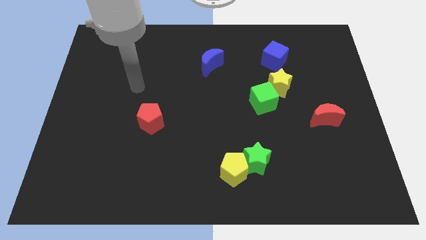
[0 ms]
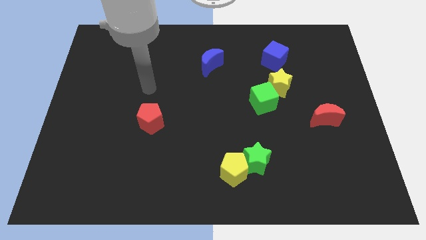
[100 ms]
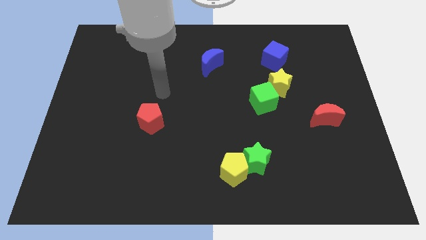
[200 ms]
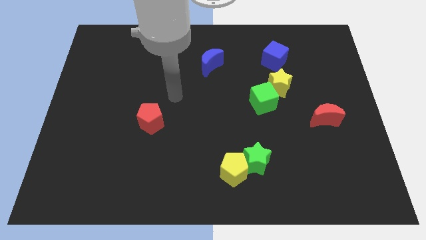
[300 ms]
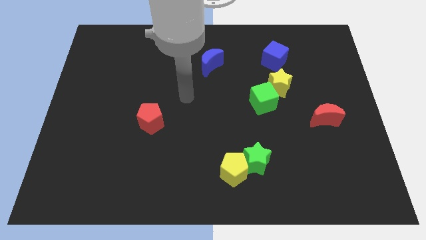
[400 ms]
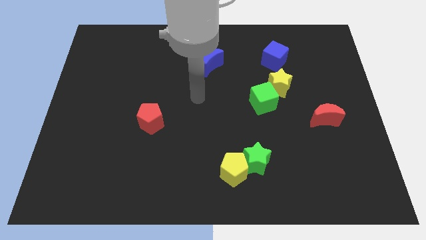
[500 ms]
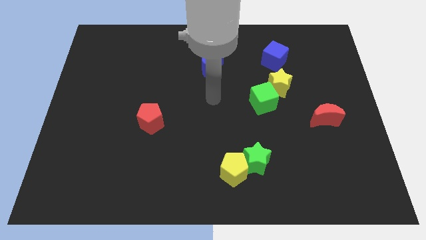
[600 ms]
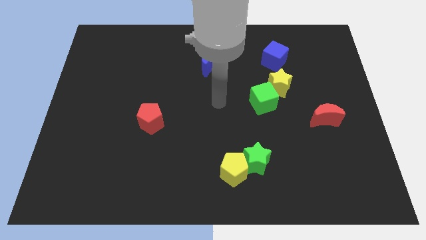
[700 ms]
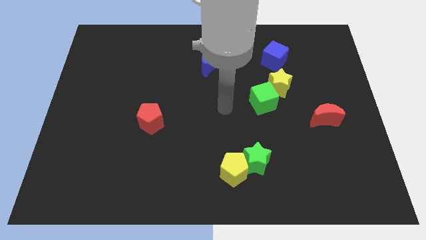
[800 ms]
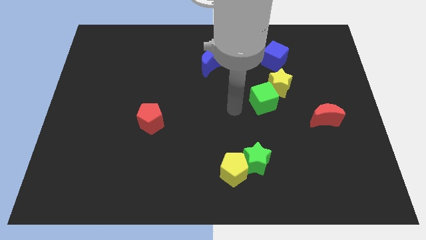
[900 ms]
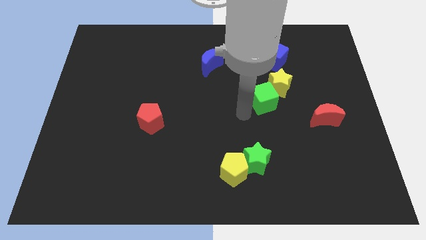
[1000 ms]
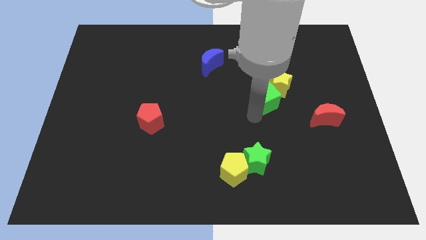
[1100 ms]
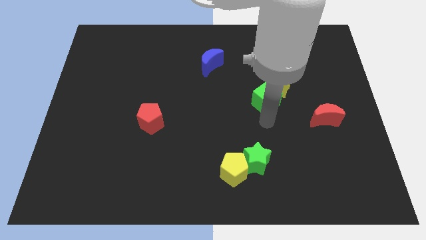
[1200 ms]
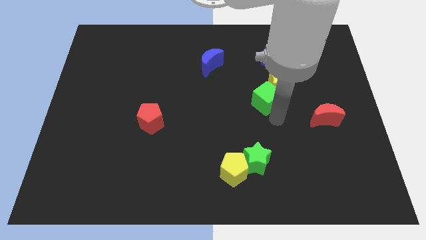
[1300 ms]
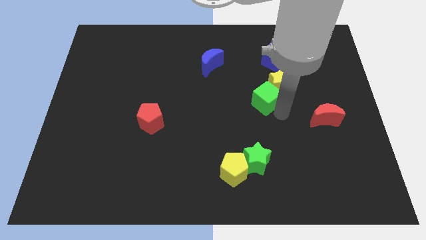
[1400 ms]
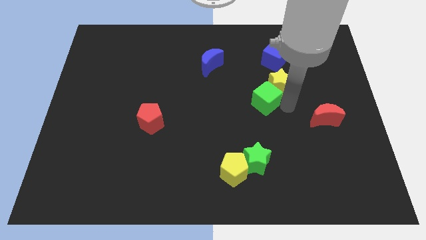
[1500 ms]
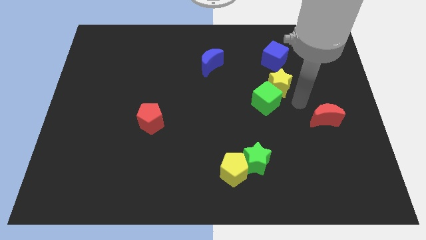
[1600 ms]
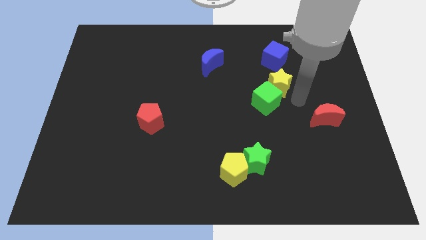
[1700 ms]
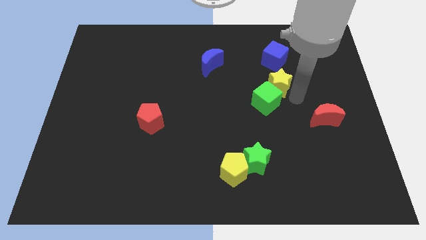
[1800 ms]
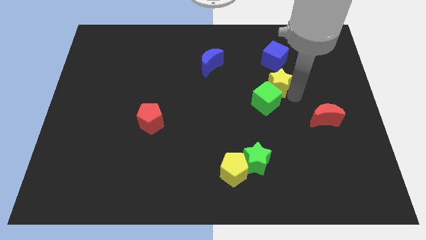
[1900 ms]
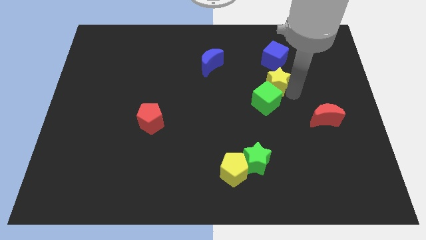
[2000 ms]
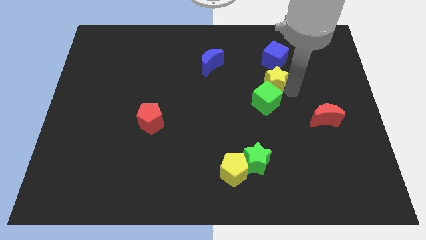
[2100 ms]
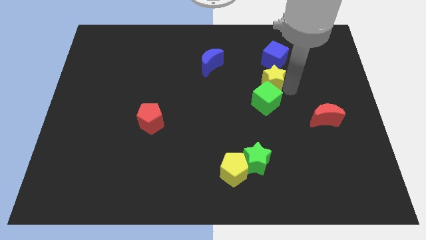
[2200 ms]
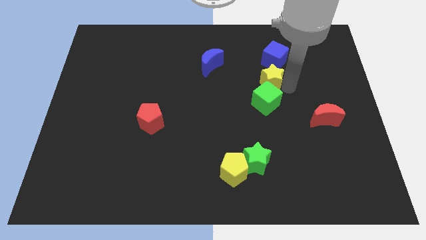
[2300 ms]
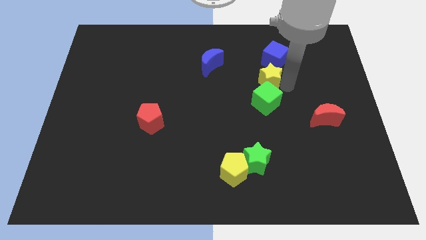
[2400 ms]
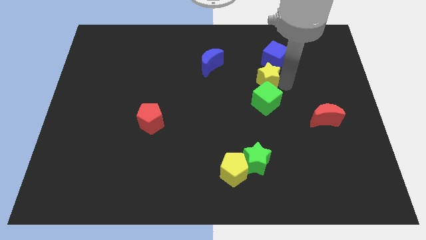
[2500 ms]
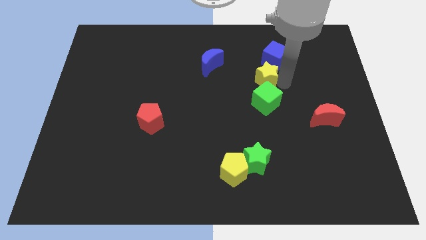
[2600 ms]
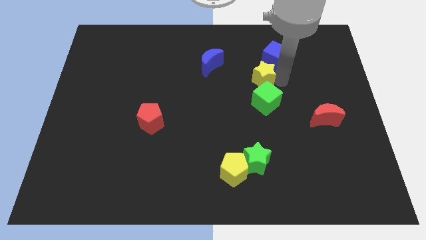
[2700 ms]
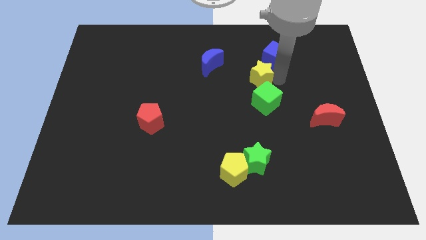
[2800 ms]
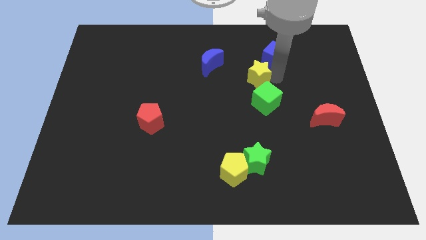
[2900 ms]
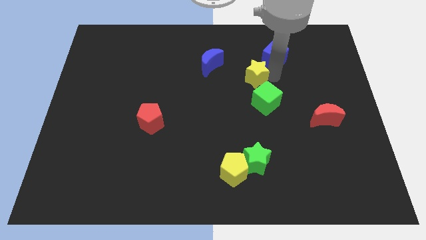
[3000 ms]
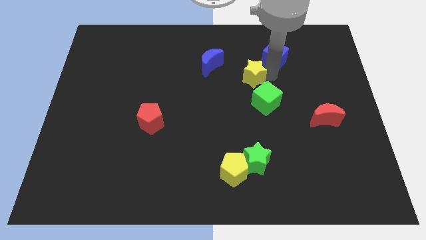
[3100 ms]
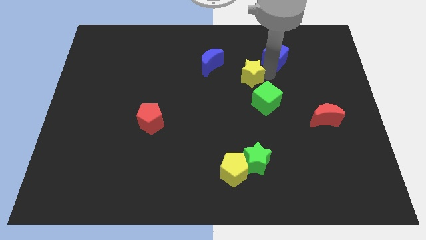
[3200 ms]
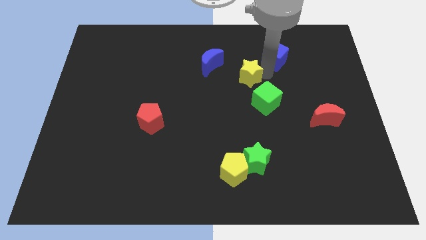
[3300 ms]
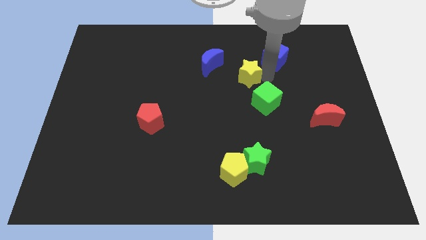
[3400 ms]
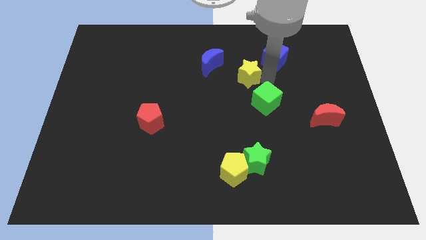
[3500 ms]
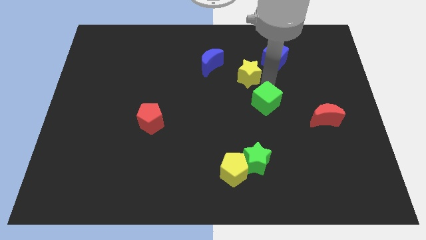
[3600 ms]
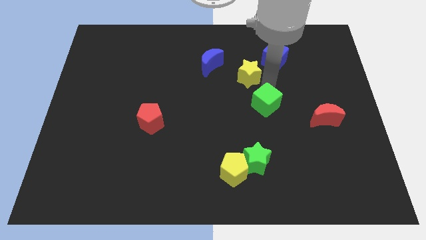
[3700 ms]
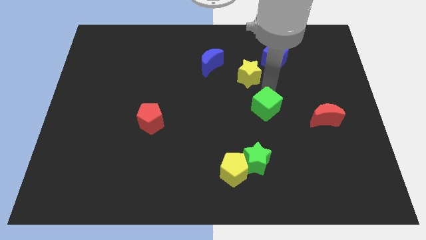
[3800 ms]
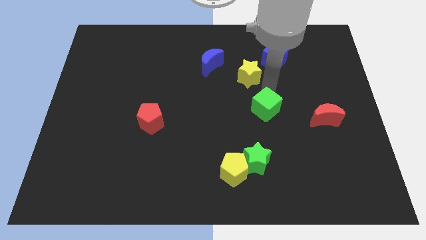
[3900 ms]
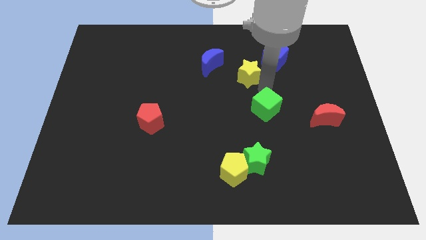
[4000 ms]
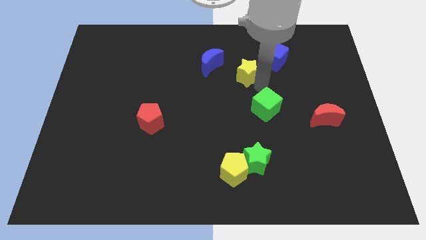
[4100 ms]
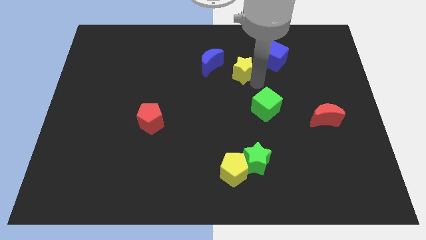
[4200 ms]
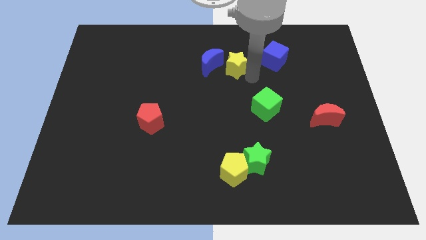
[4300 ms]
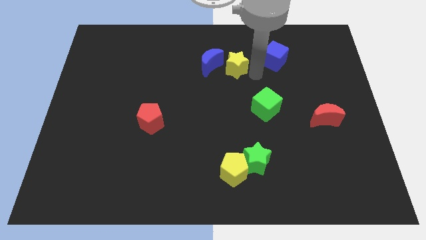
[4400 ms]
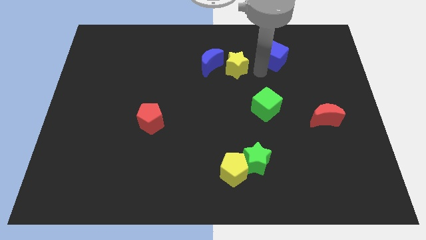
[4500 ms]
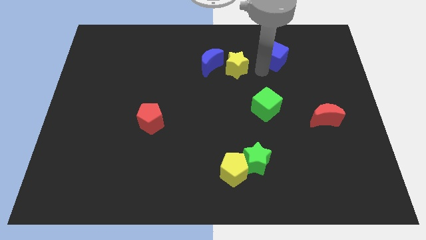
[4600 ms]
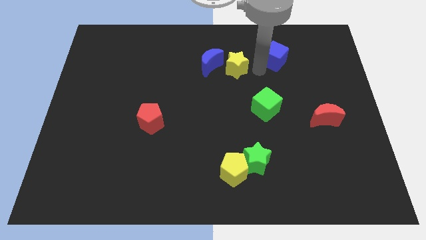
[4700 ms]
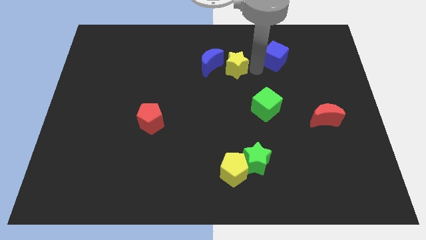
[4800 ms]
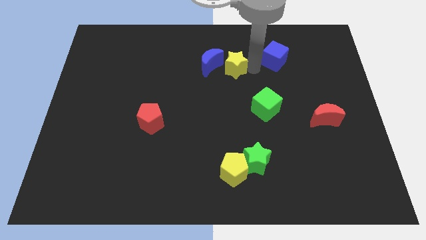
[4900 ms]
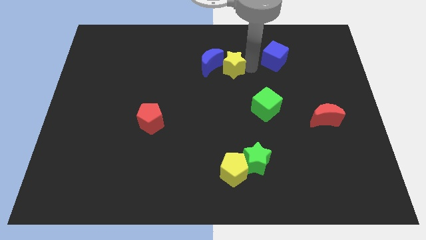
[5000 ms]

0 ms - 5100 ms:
push the yellow star towards the blue moon

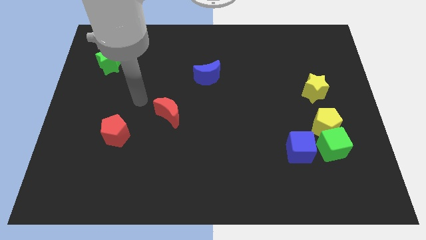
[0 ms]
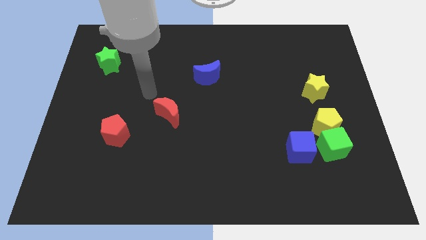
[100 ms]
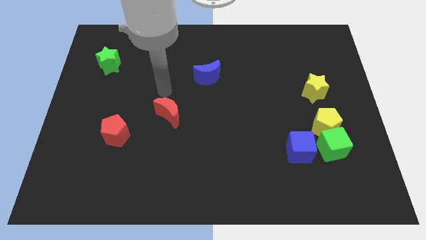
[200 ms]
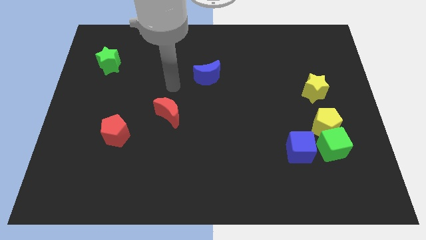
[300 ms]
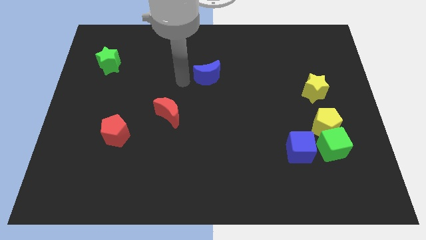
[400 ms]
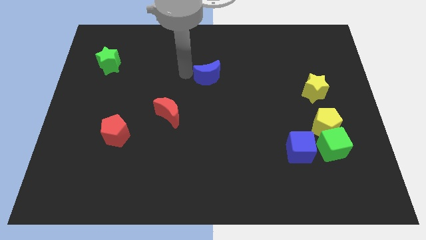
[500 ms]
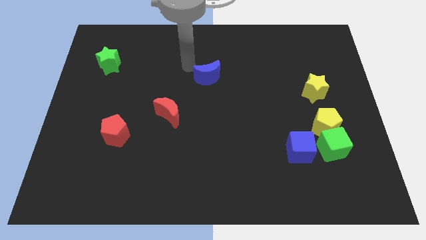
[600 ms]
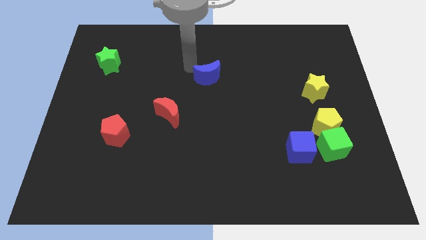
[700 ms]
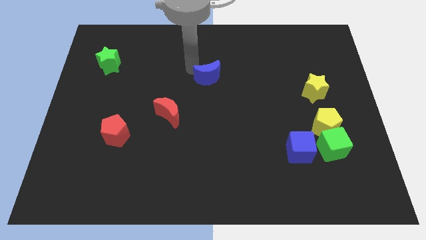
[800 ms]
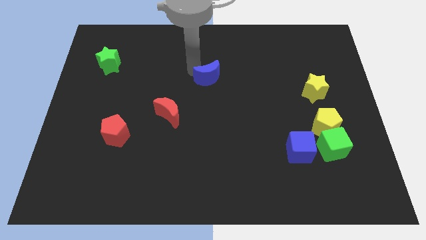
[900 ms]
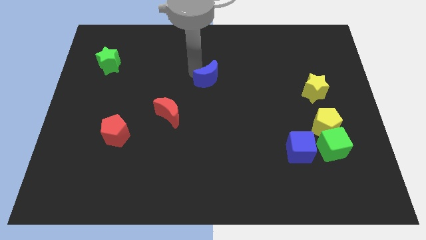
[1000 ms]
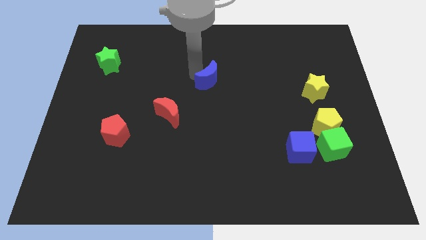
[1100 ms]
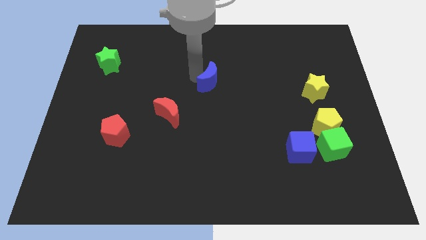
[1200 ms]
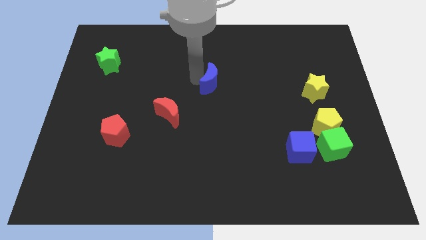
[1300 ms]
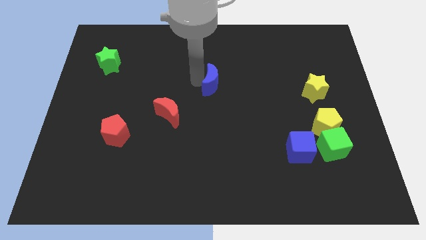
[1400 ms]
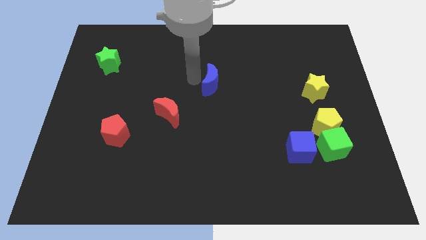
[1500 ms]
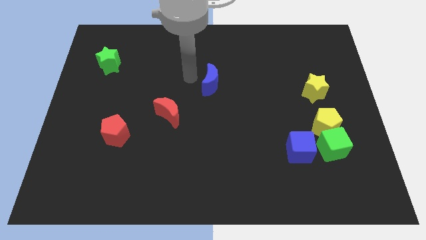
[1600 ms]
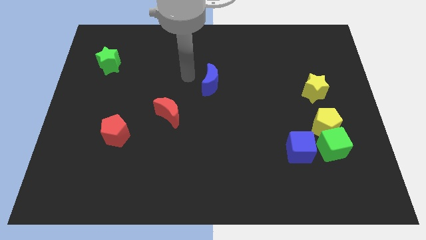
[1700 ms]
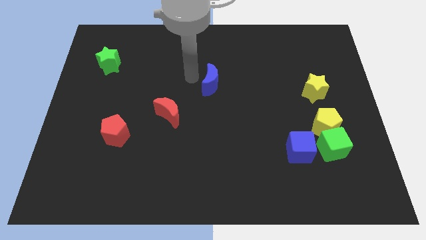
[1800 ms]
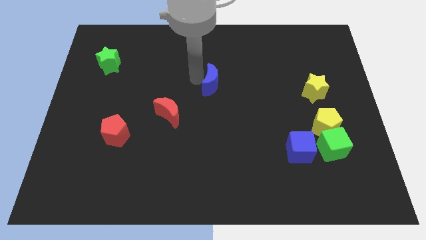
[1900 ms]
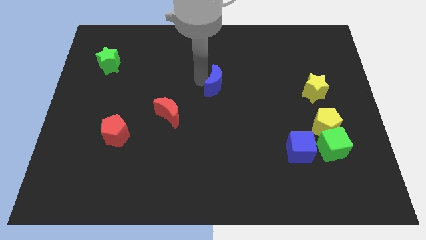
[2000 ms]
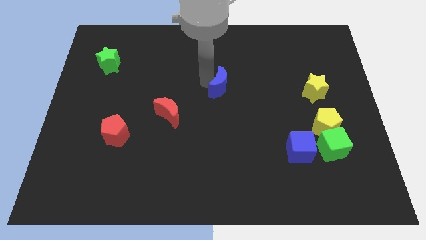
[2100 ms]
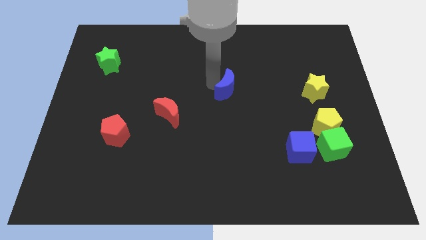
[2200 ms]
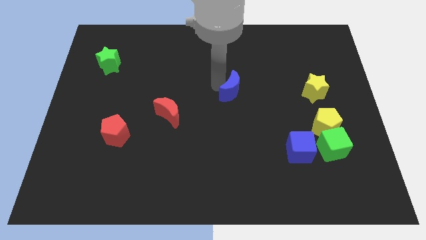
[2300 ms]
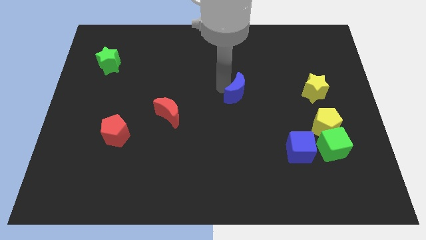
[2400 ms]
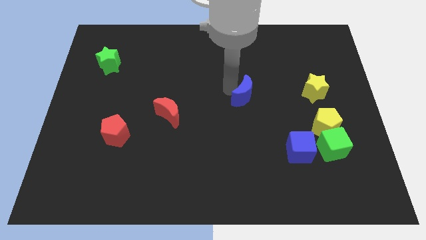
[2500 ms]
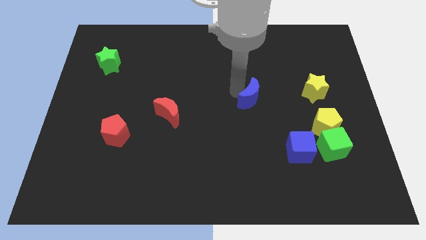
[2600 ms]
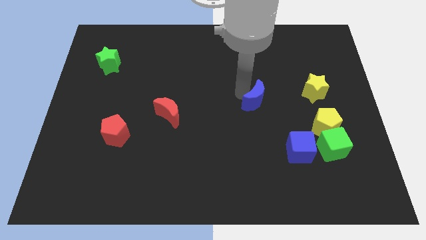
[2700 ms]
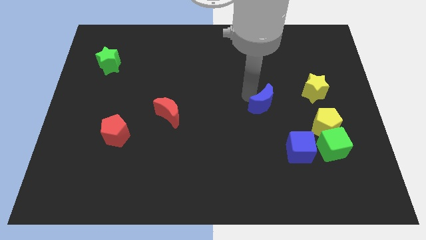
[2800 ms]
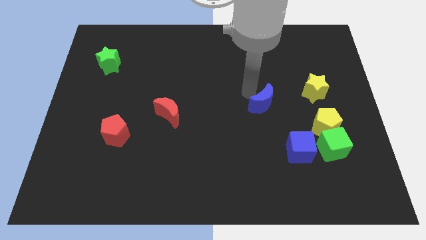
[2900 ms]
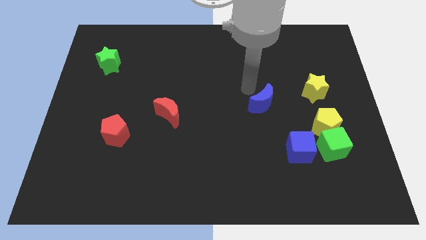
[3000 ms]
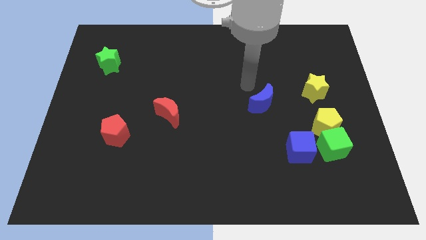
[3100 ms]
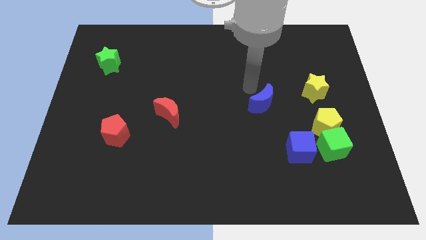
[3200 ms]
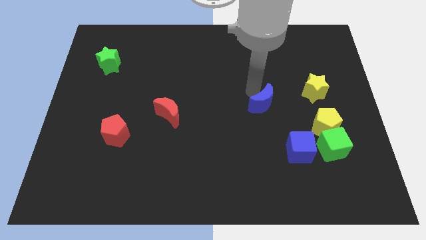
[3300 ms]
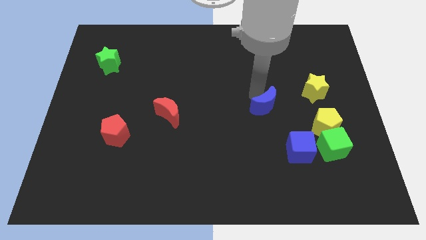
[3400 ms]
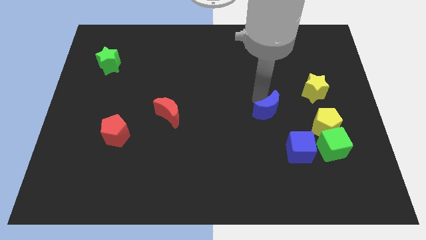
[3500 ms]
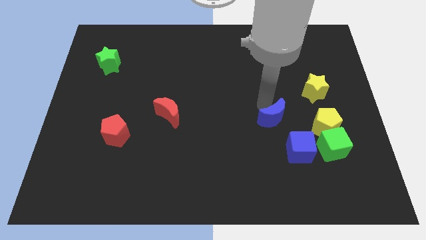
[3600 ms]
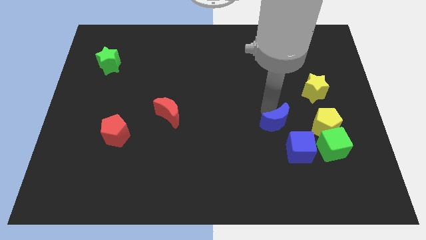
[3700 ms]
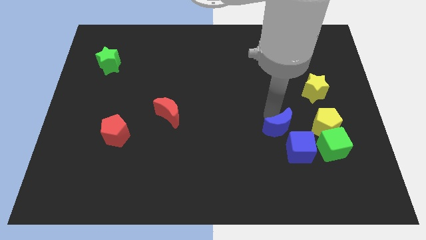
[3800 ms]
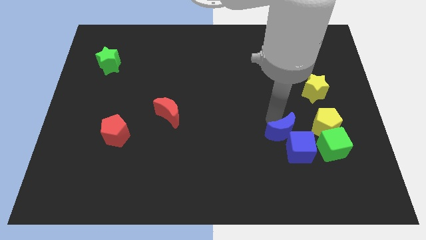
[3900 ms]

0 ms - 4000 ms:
push the blue moon next to the blue cube
